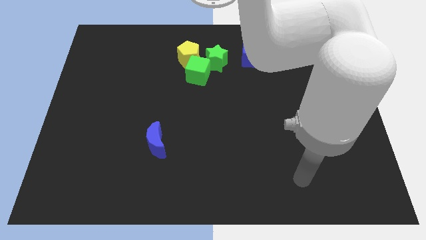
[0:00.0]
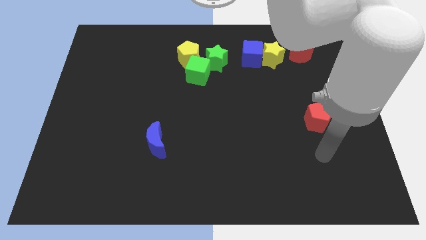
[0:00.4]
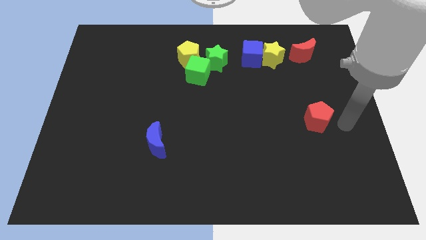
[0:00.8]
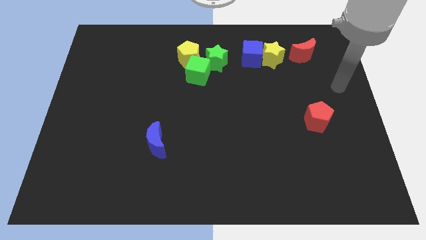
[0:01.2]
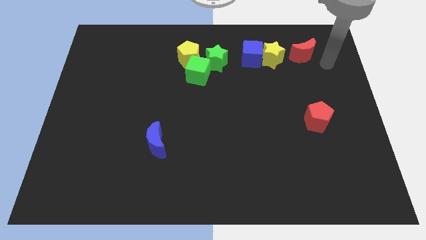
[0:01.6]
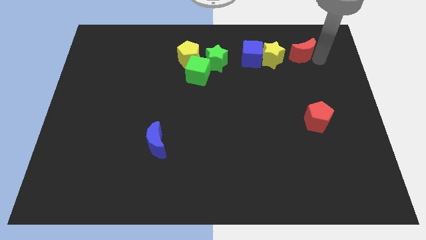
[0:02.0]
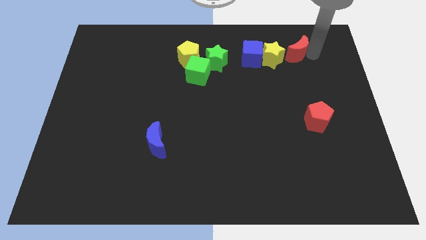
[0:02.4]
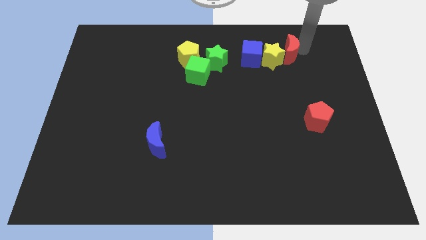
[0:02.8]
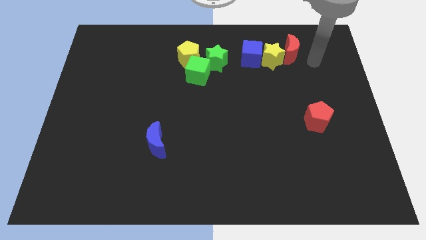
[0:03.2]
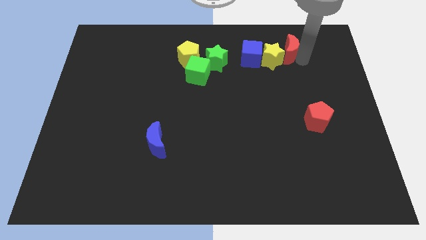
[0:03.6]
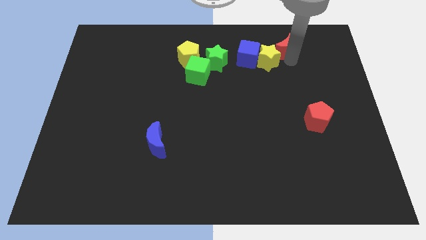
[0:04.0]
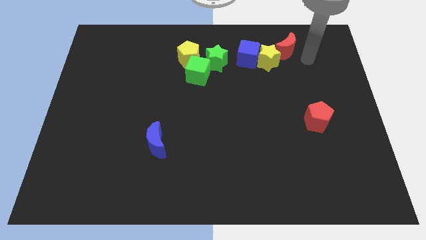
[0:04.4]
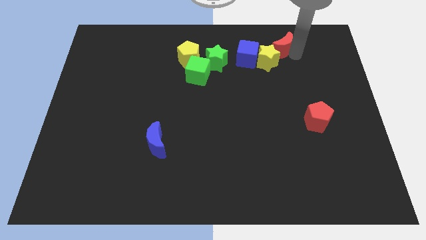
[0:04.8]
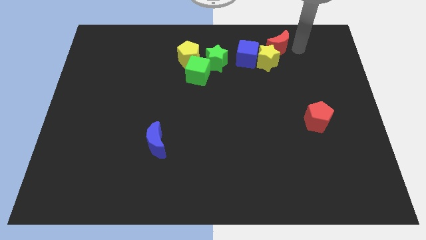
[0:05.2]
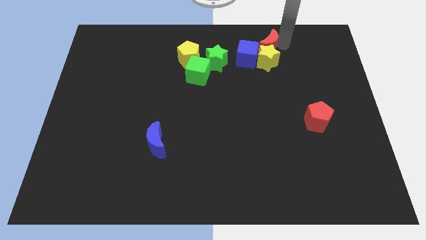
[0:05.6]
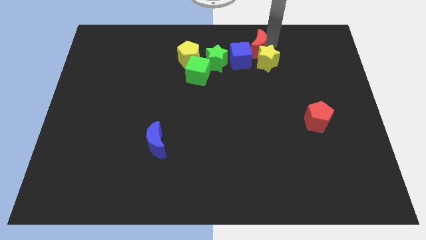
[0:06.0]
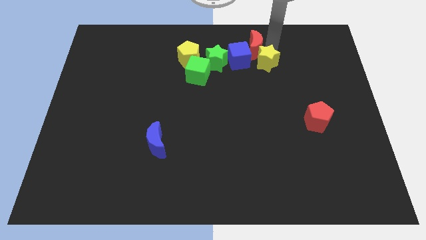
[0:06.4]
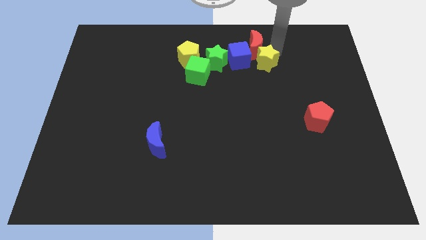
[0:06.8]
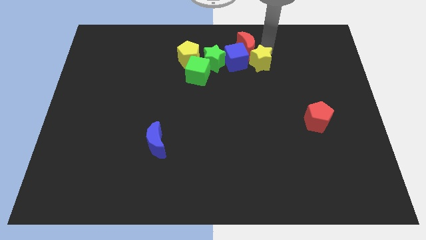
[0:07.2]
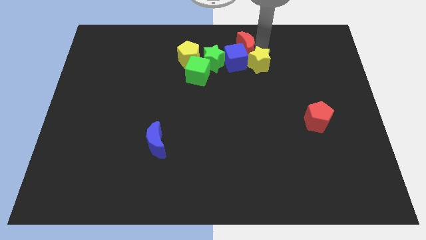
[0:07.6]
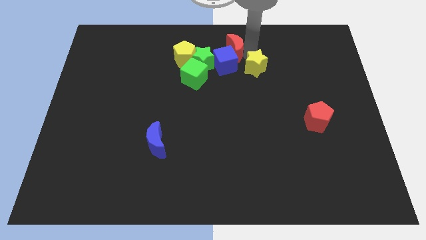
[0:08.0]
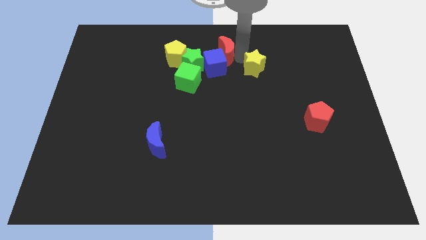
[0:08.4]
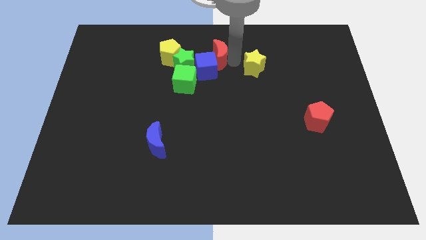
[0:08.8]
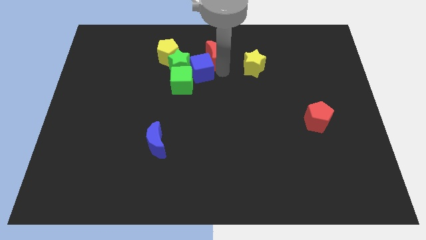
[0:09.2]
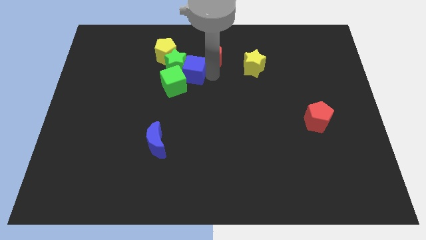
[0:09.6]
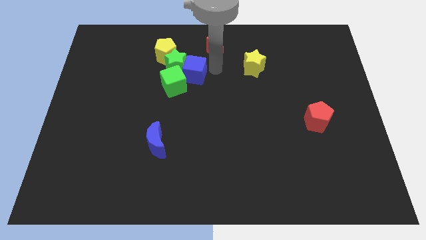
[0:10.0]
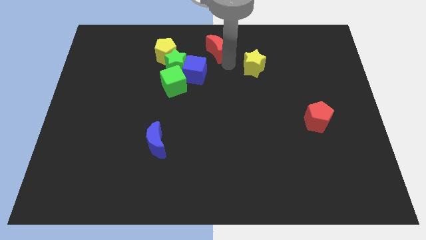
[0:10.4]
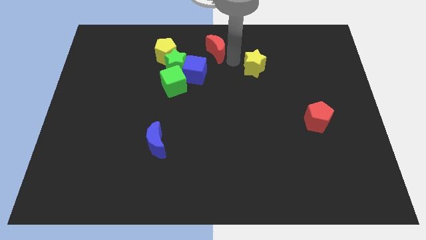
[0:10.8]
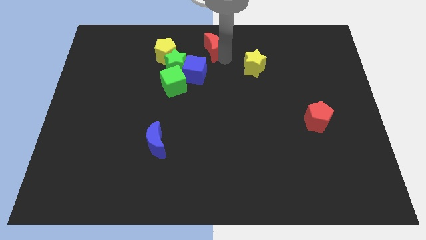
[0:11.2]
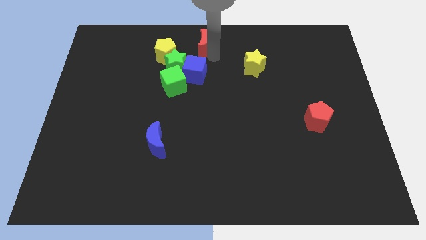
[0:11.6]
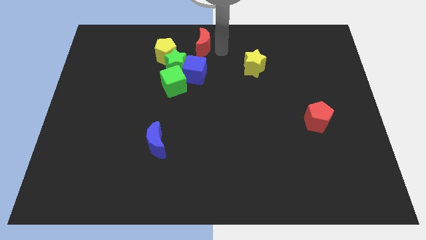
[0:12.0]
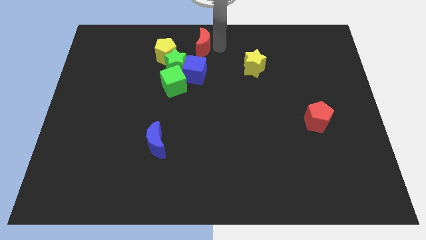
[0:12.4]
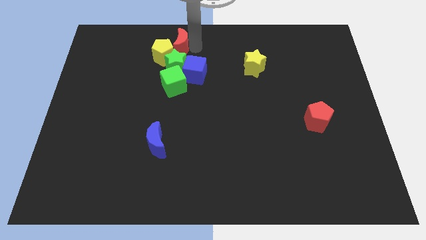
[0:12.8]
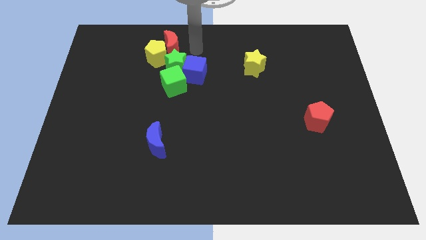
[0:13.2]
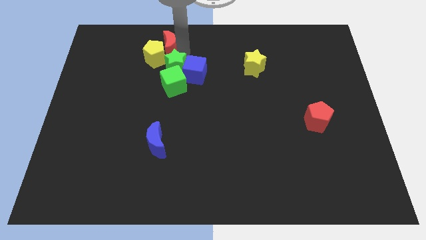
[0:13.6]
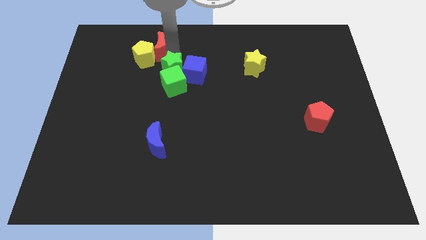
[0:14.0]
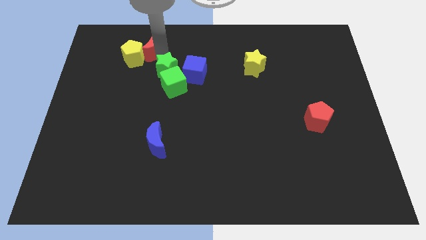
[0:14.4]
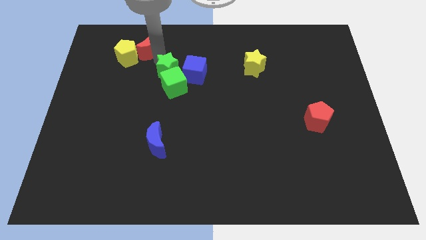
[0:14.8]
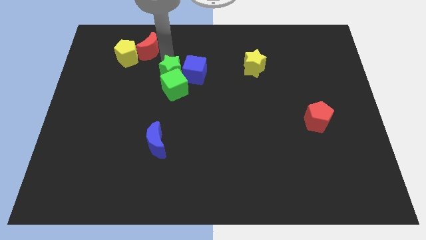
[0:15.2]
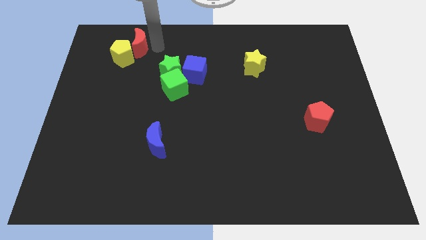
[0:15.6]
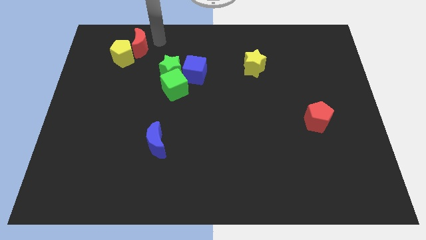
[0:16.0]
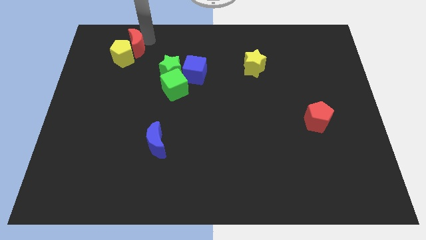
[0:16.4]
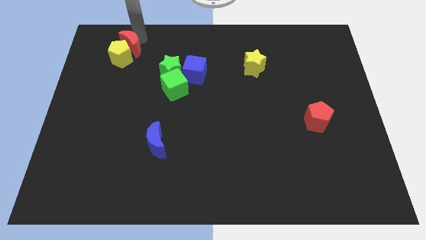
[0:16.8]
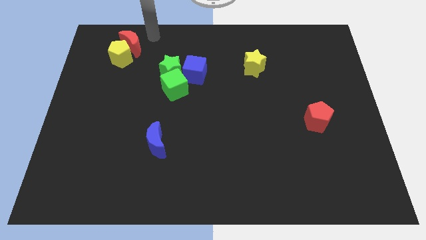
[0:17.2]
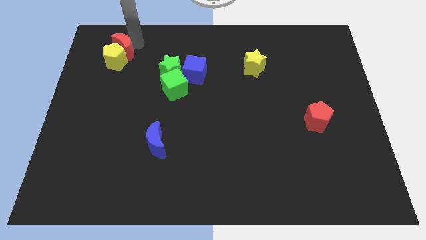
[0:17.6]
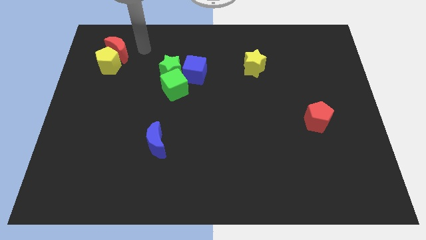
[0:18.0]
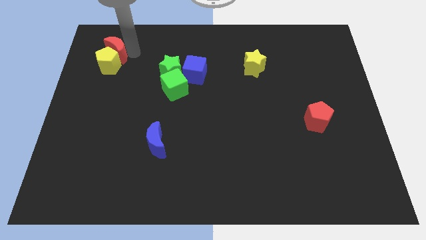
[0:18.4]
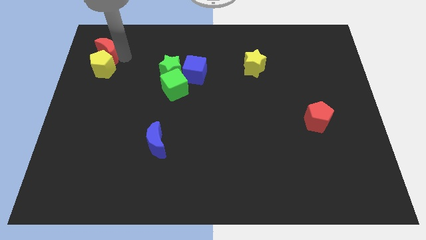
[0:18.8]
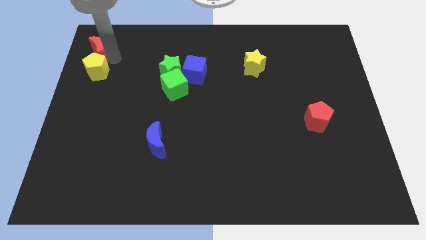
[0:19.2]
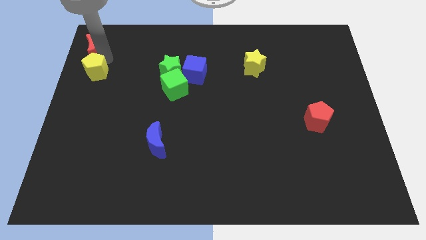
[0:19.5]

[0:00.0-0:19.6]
move the red moon to the top left

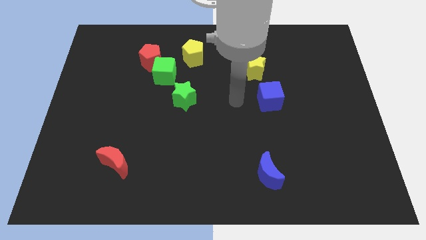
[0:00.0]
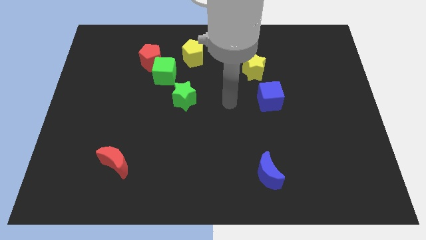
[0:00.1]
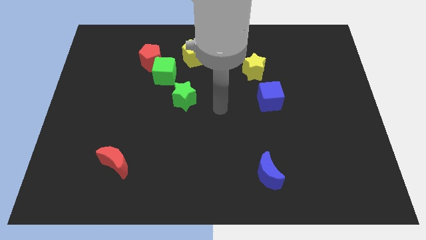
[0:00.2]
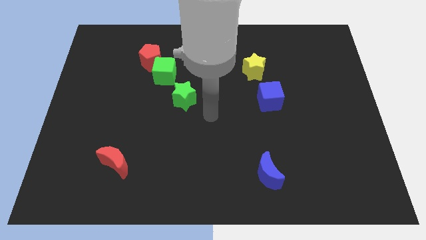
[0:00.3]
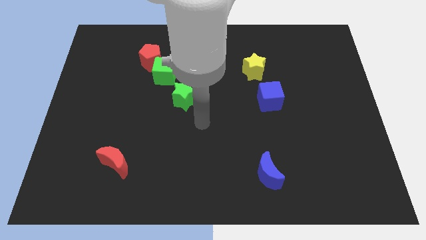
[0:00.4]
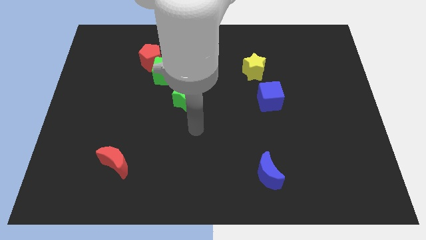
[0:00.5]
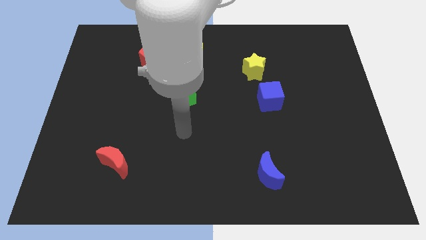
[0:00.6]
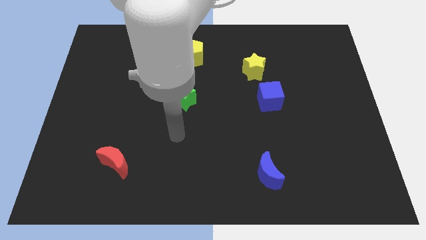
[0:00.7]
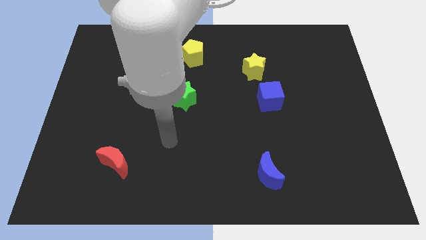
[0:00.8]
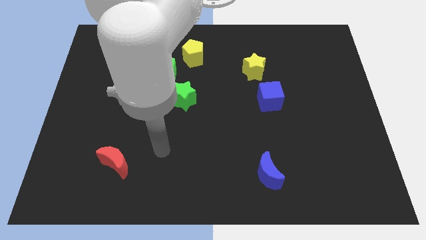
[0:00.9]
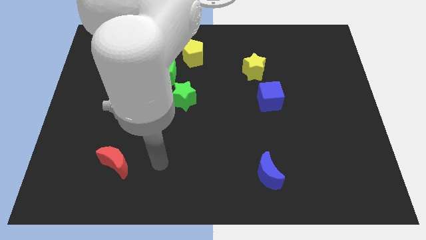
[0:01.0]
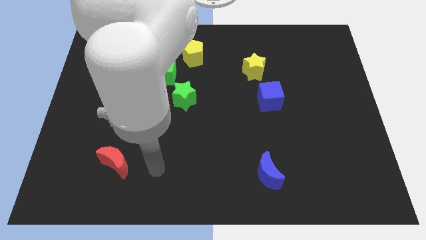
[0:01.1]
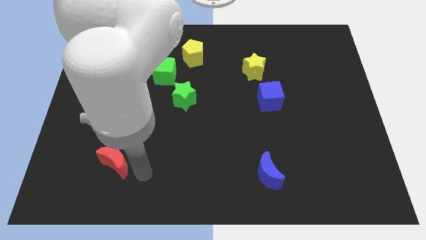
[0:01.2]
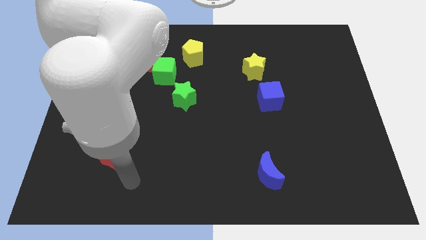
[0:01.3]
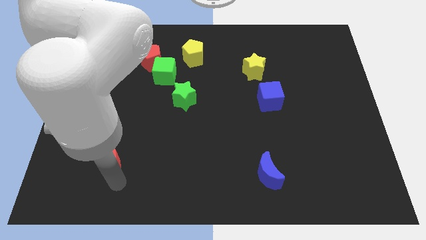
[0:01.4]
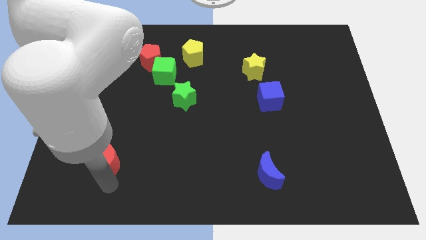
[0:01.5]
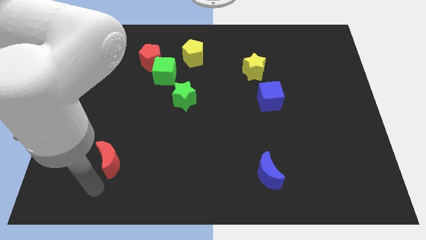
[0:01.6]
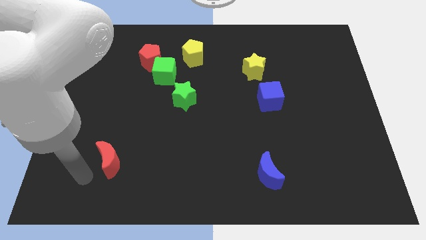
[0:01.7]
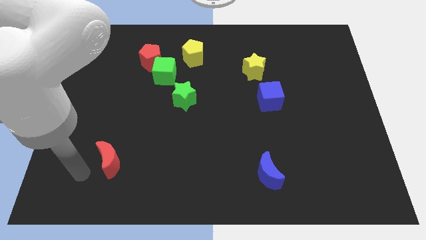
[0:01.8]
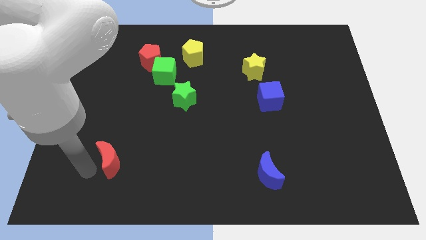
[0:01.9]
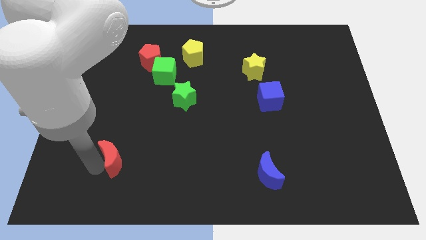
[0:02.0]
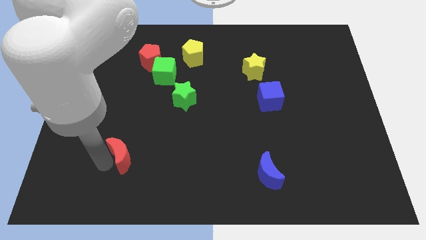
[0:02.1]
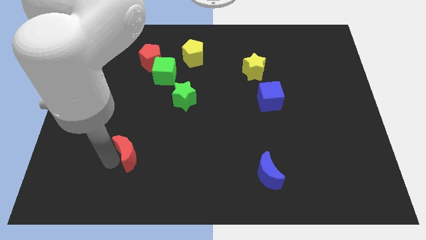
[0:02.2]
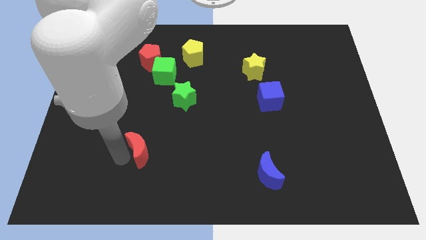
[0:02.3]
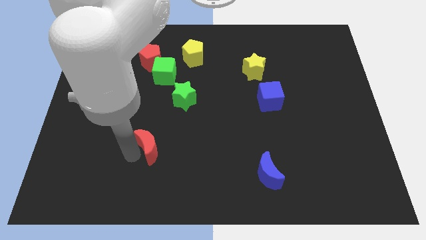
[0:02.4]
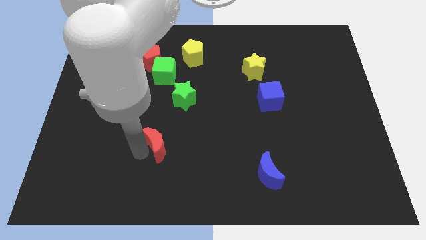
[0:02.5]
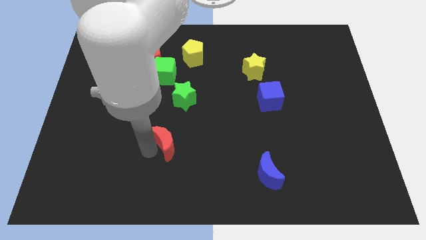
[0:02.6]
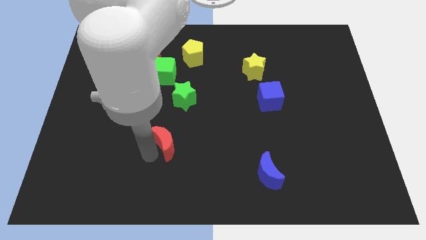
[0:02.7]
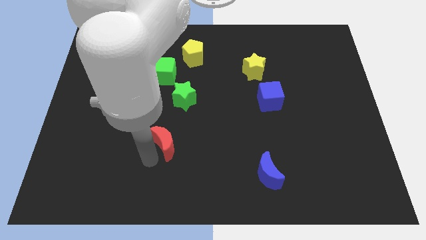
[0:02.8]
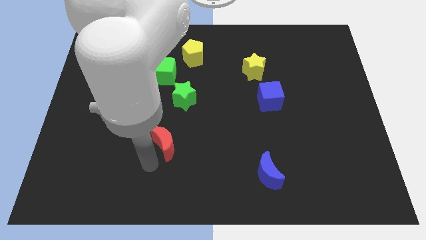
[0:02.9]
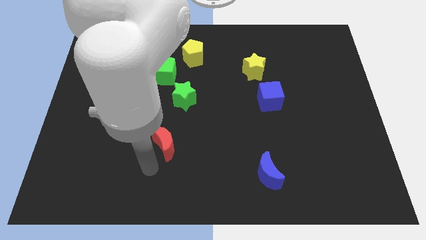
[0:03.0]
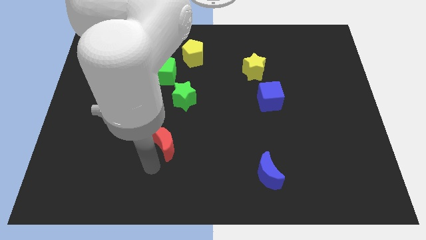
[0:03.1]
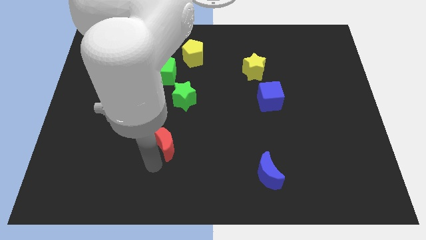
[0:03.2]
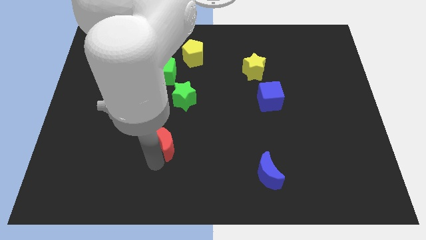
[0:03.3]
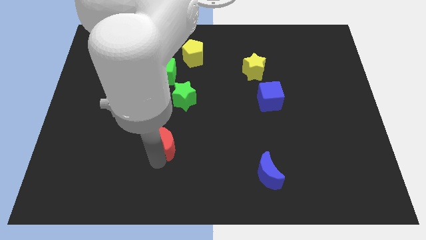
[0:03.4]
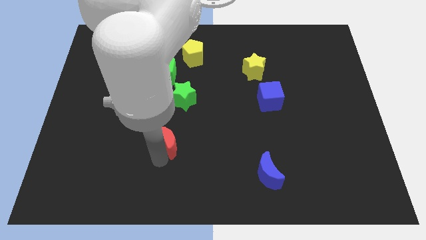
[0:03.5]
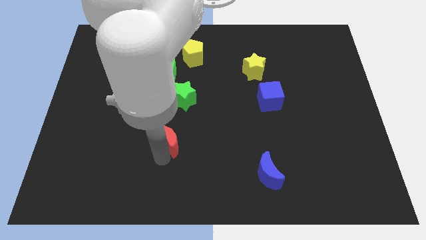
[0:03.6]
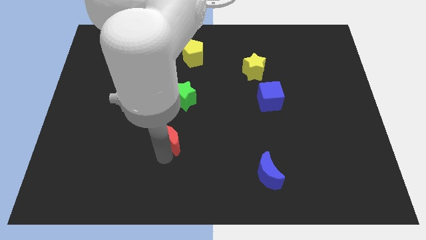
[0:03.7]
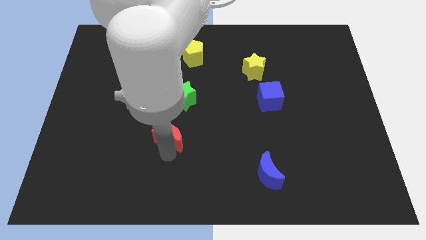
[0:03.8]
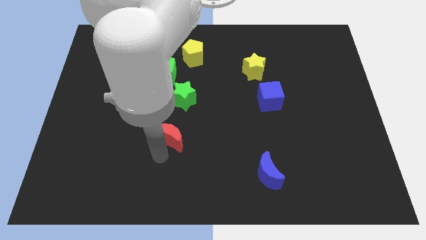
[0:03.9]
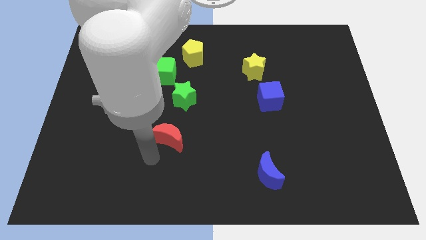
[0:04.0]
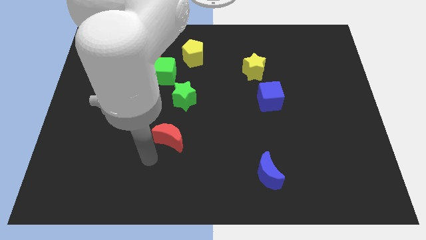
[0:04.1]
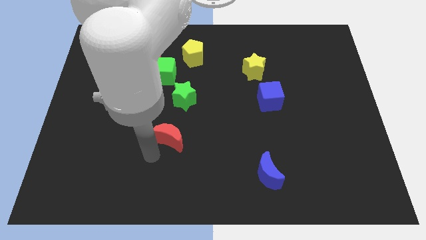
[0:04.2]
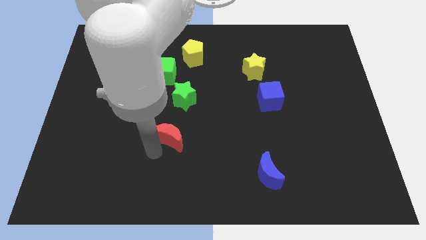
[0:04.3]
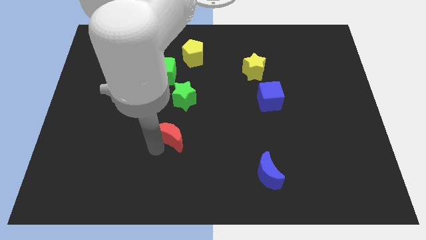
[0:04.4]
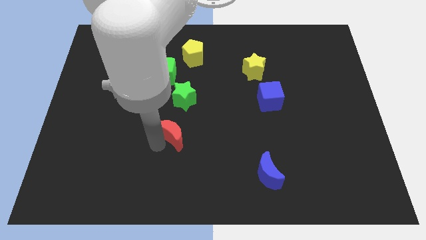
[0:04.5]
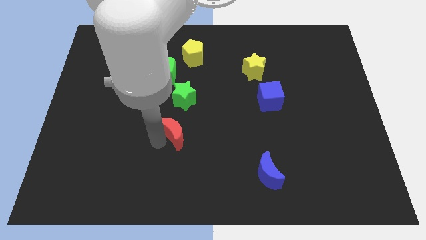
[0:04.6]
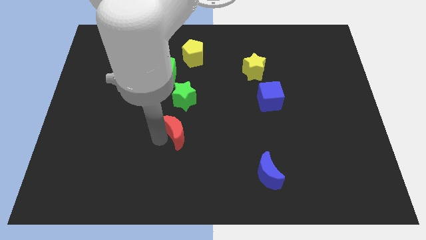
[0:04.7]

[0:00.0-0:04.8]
push the red moon to the center
